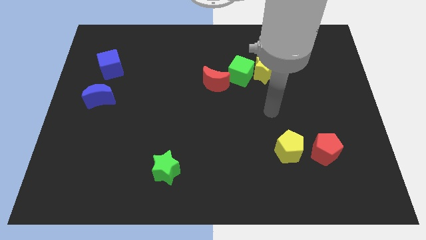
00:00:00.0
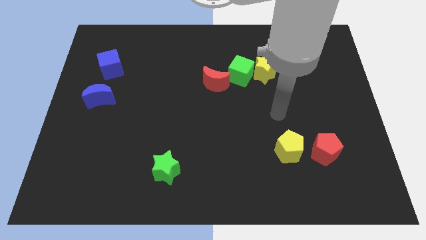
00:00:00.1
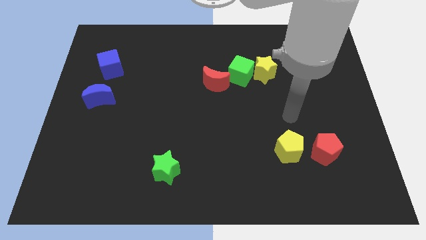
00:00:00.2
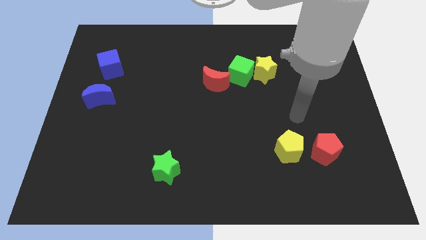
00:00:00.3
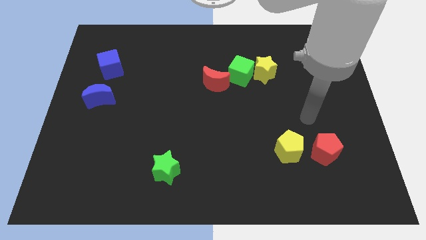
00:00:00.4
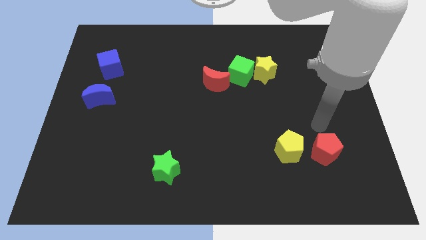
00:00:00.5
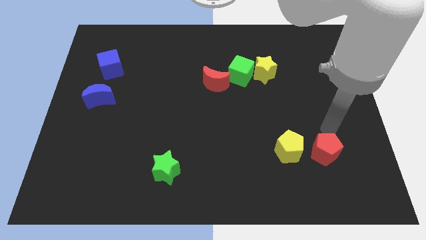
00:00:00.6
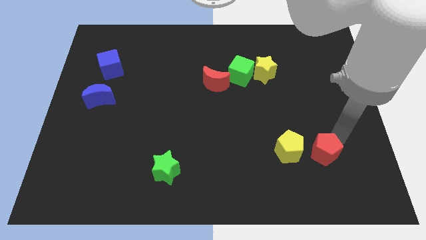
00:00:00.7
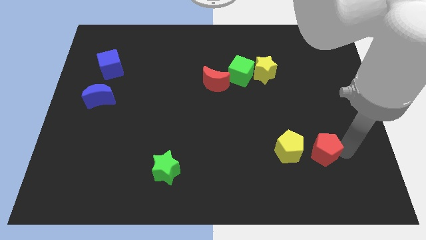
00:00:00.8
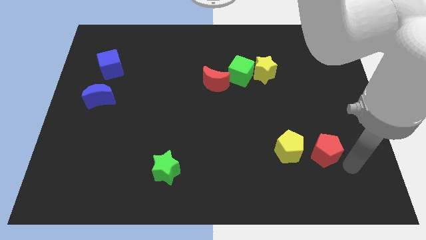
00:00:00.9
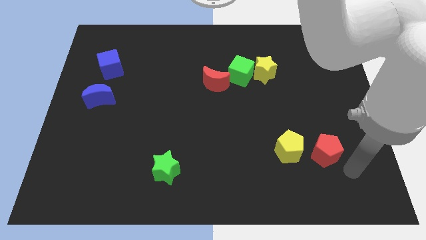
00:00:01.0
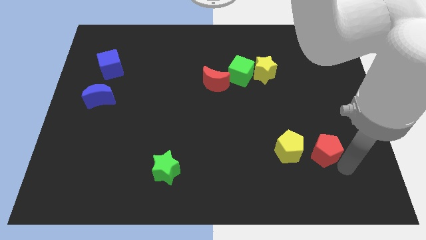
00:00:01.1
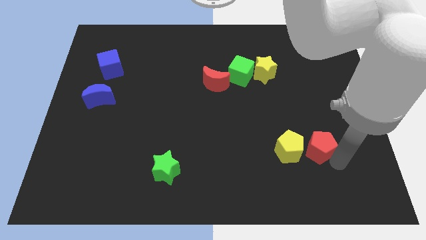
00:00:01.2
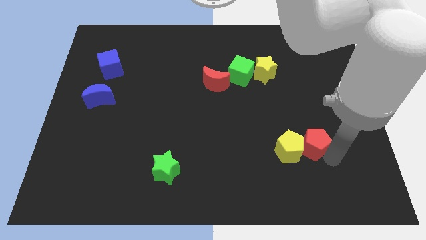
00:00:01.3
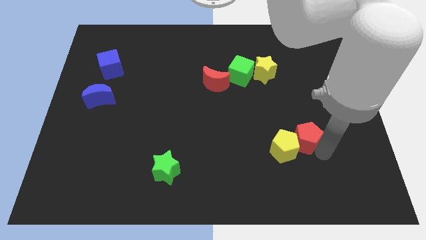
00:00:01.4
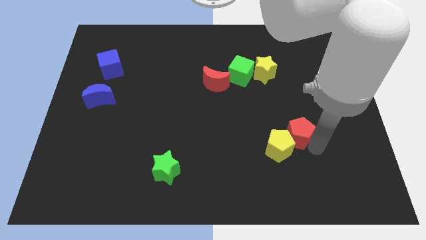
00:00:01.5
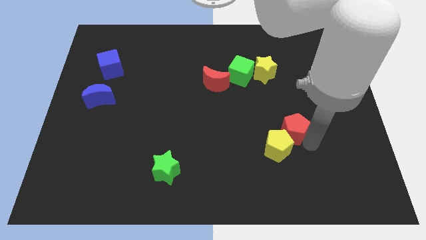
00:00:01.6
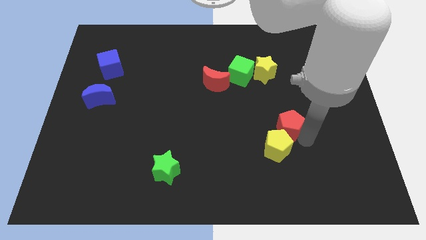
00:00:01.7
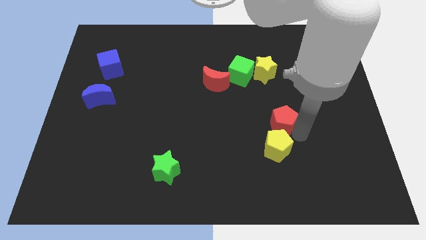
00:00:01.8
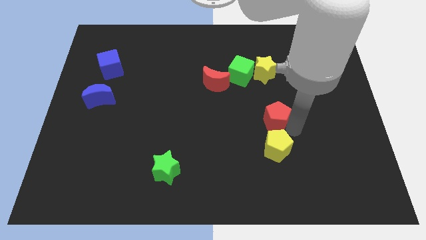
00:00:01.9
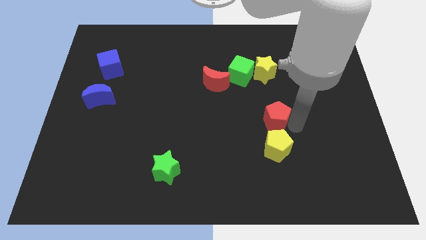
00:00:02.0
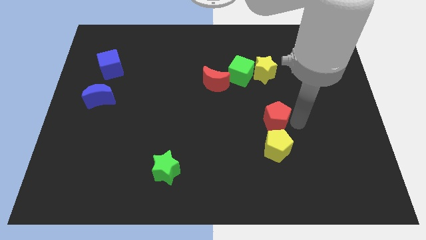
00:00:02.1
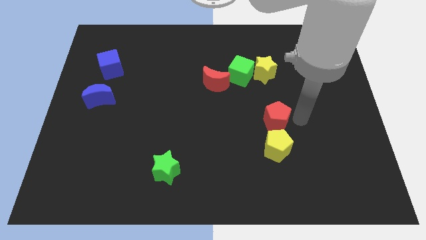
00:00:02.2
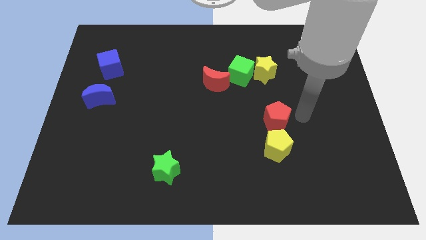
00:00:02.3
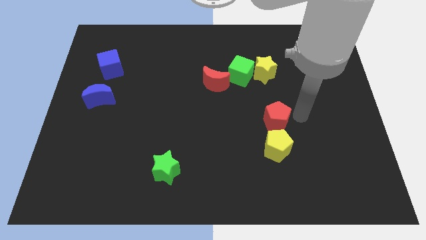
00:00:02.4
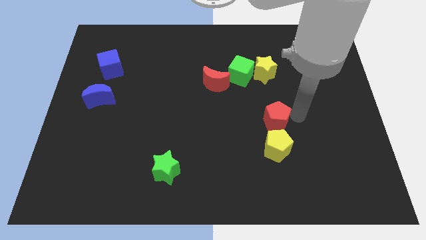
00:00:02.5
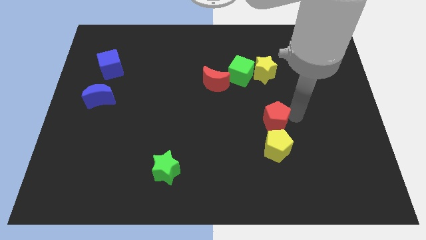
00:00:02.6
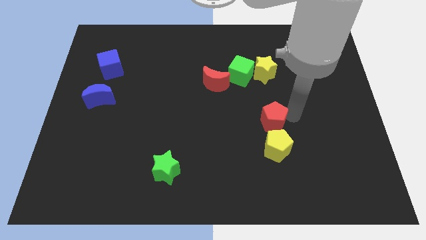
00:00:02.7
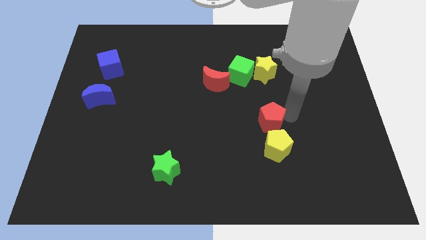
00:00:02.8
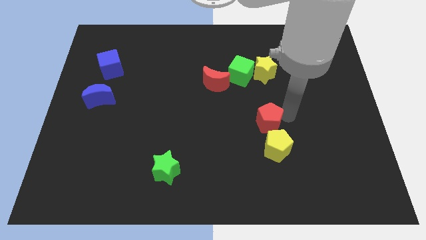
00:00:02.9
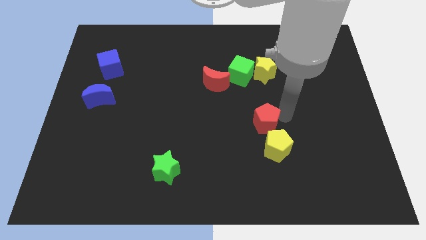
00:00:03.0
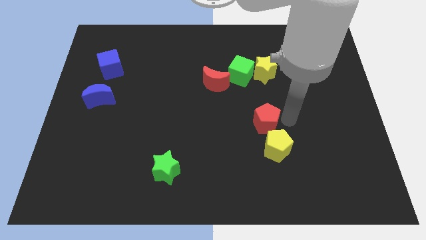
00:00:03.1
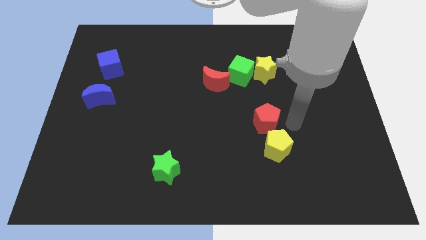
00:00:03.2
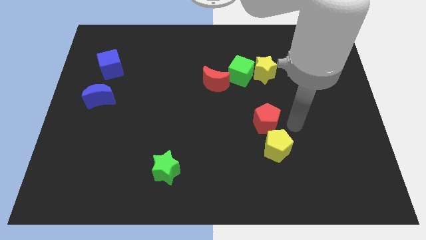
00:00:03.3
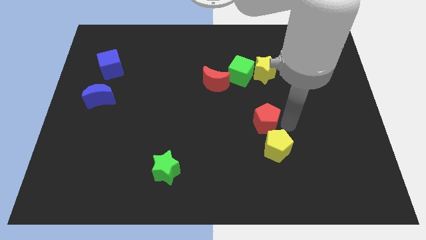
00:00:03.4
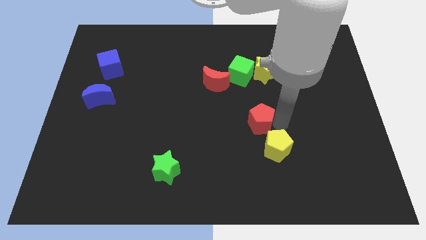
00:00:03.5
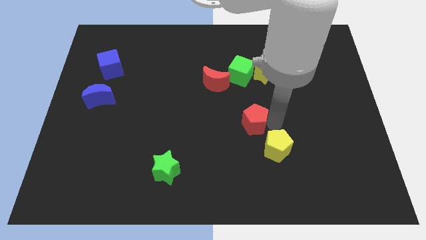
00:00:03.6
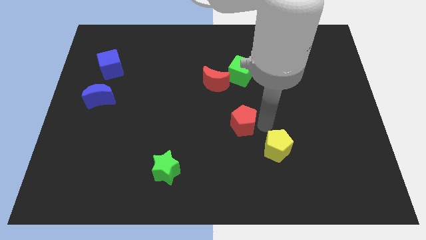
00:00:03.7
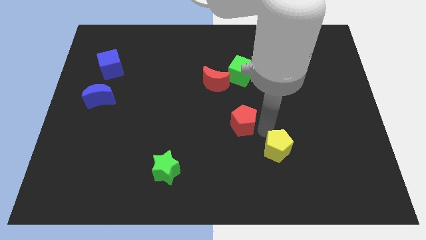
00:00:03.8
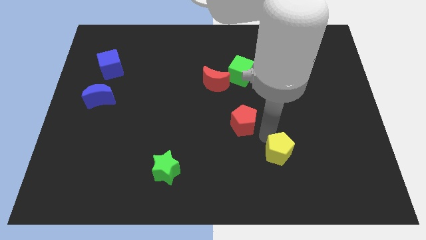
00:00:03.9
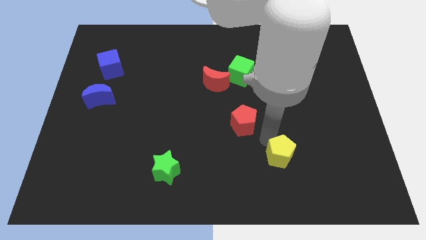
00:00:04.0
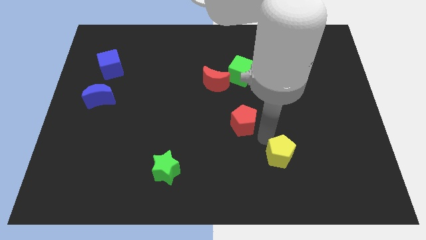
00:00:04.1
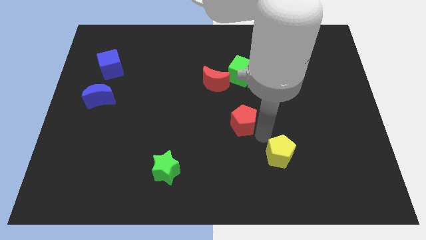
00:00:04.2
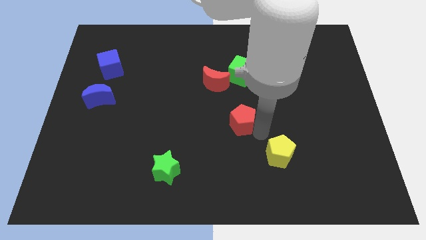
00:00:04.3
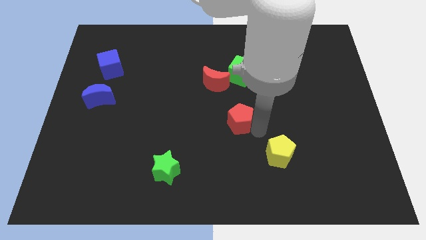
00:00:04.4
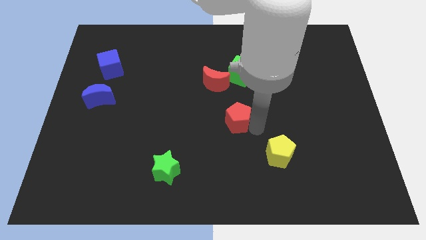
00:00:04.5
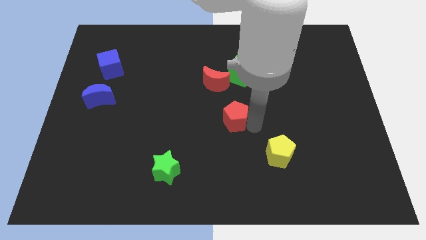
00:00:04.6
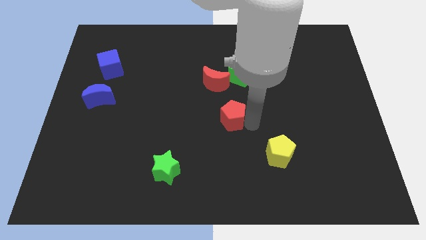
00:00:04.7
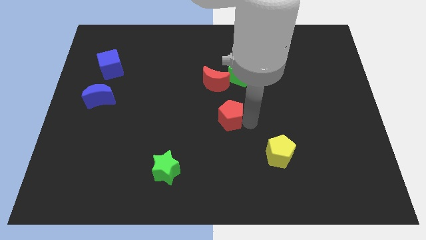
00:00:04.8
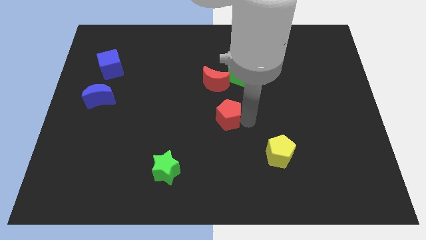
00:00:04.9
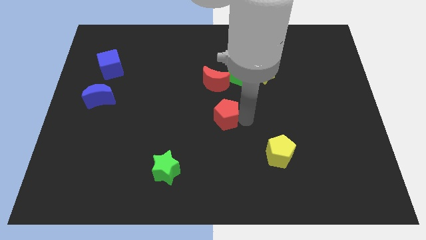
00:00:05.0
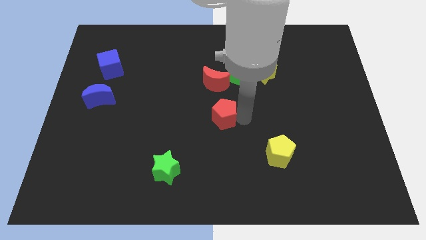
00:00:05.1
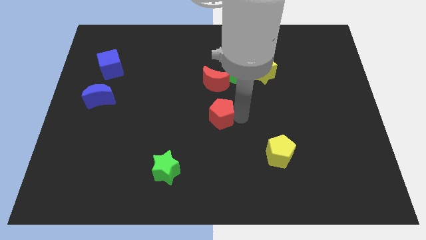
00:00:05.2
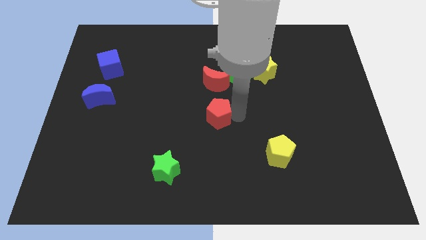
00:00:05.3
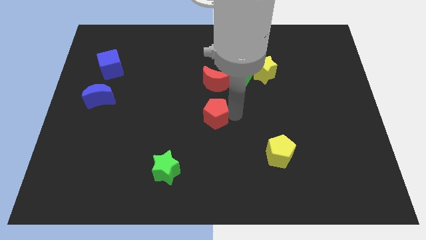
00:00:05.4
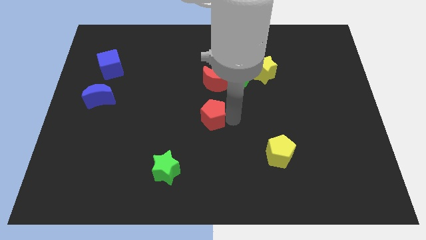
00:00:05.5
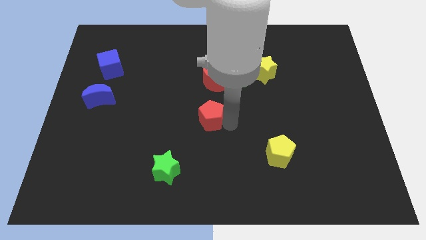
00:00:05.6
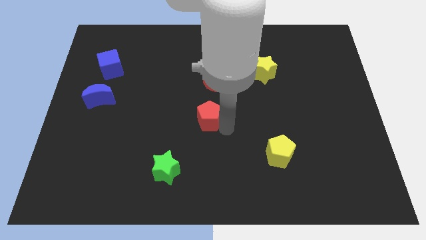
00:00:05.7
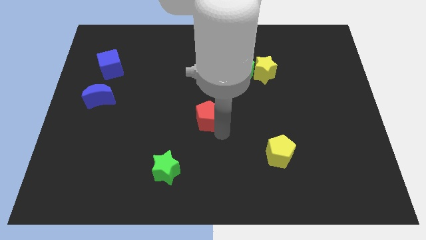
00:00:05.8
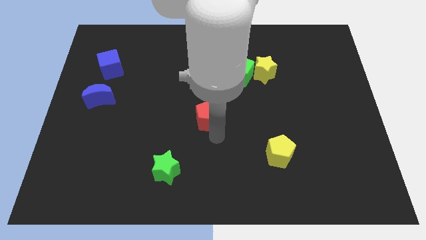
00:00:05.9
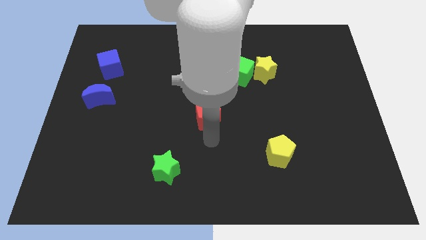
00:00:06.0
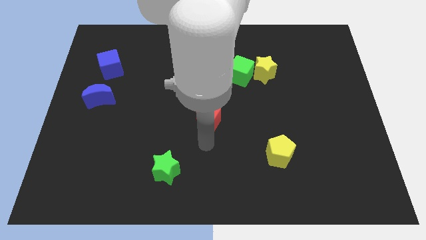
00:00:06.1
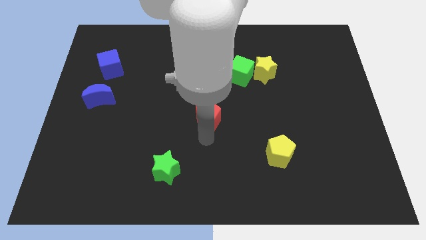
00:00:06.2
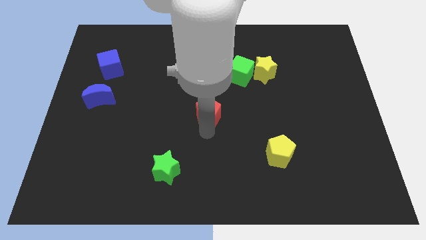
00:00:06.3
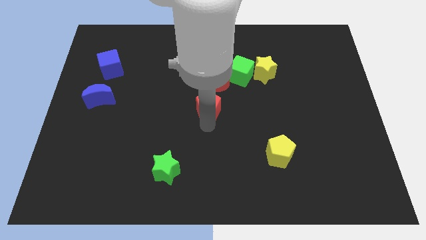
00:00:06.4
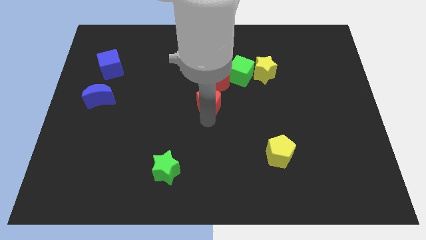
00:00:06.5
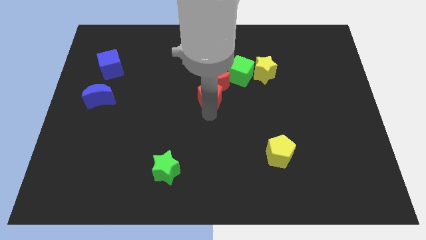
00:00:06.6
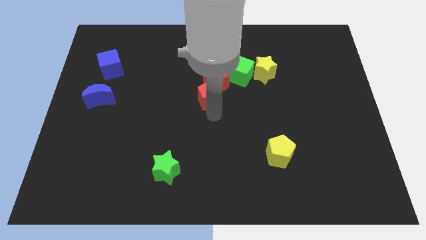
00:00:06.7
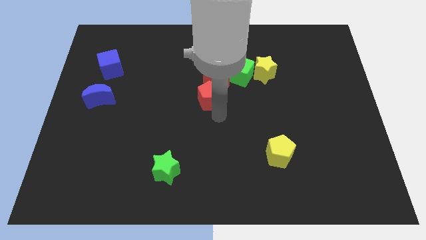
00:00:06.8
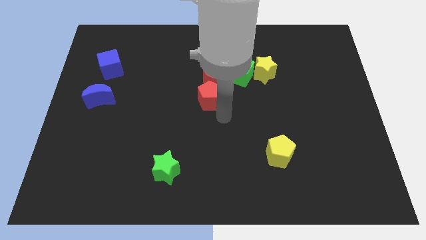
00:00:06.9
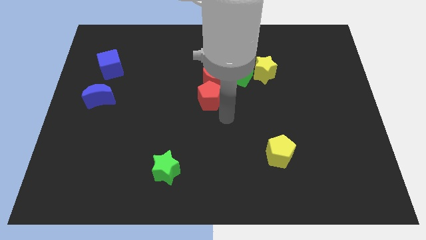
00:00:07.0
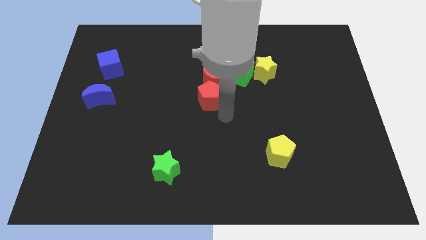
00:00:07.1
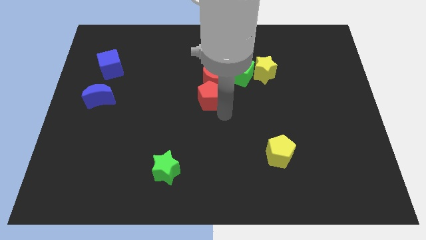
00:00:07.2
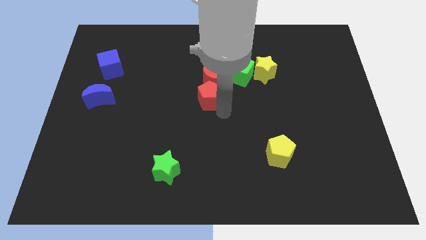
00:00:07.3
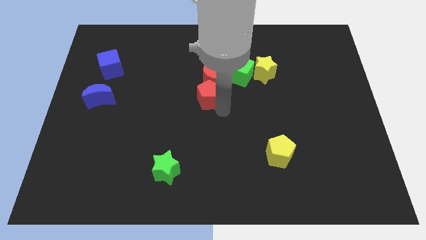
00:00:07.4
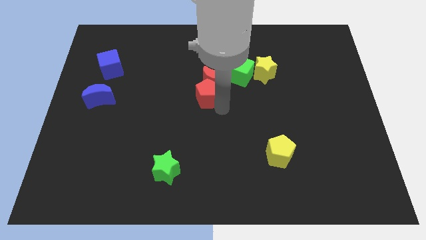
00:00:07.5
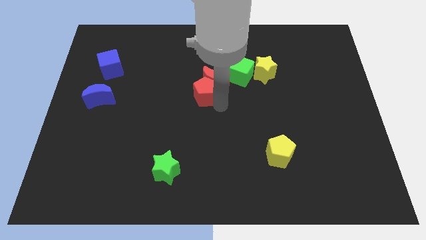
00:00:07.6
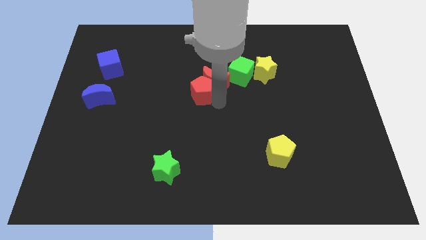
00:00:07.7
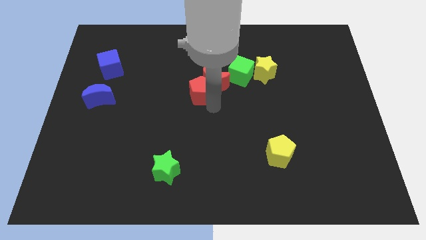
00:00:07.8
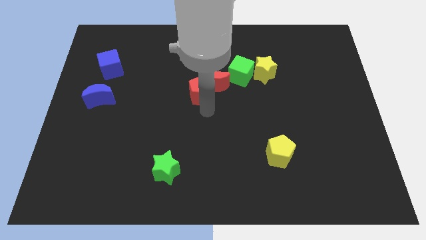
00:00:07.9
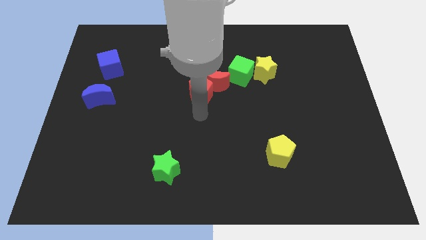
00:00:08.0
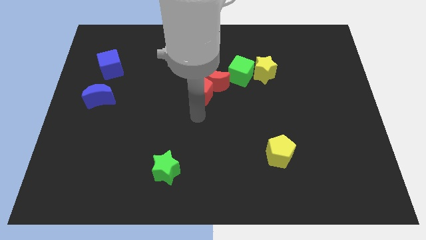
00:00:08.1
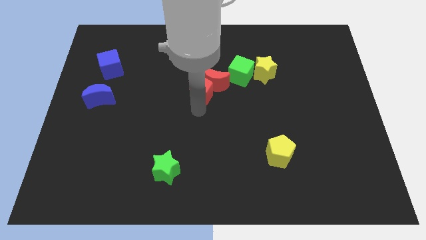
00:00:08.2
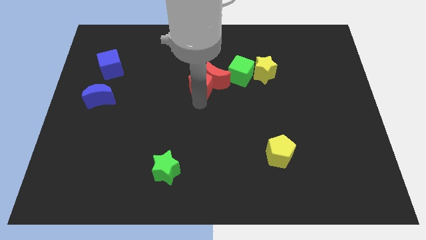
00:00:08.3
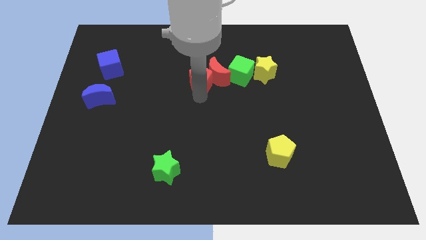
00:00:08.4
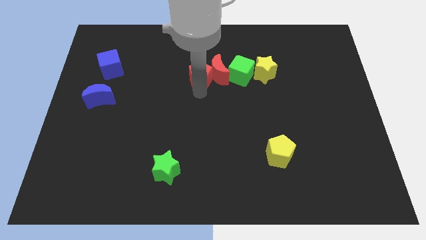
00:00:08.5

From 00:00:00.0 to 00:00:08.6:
slide the red pentagon to the left of the yellow star
